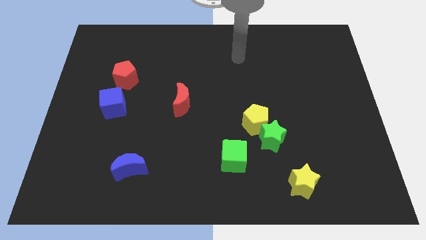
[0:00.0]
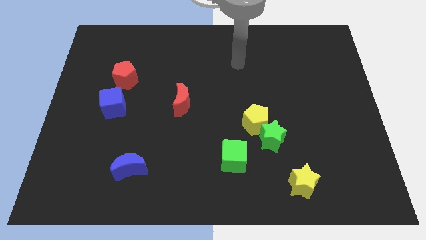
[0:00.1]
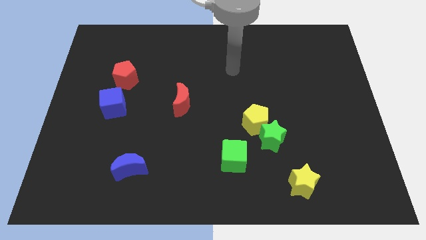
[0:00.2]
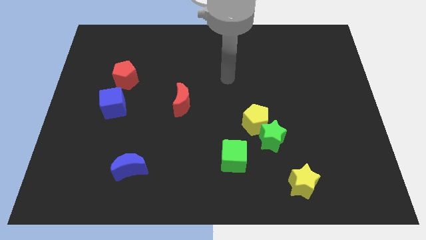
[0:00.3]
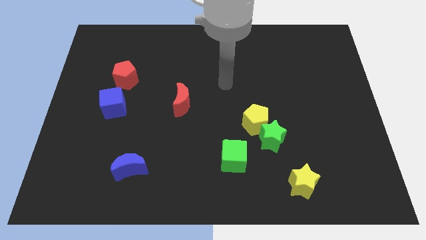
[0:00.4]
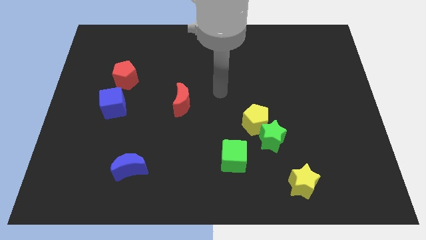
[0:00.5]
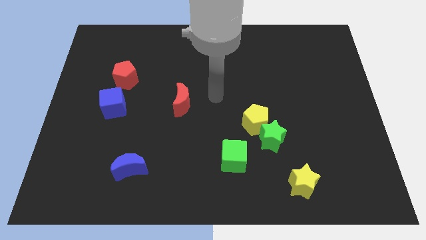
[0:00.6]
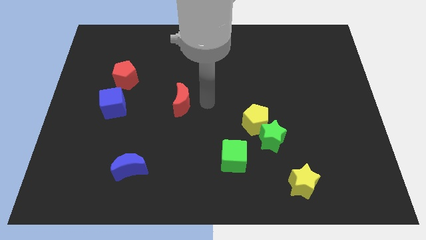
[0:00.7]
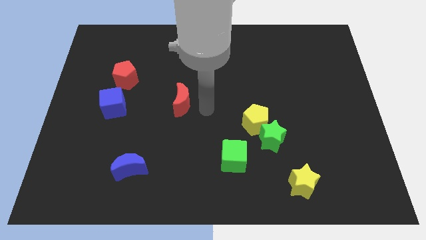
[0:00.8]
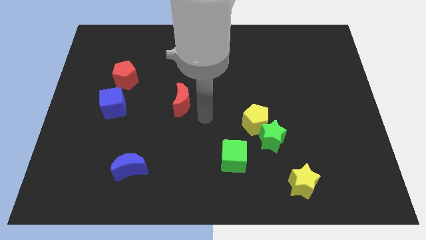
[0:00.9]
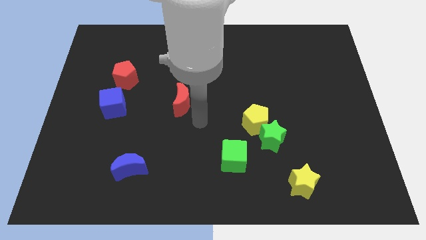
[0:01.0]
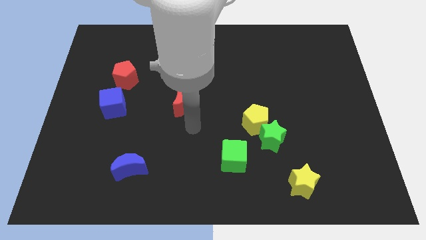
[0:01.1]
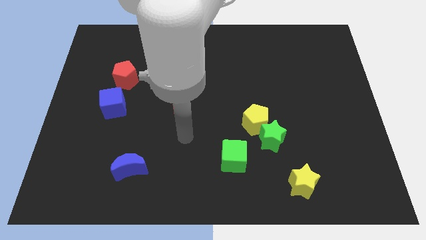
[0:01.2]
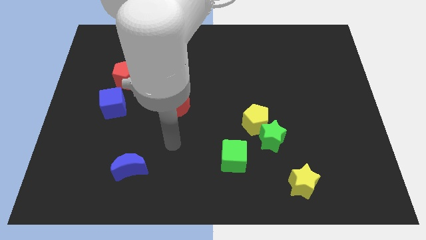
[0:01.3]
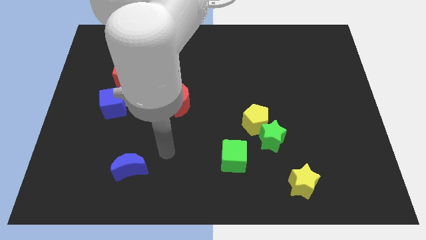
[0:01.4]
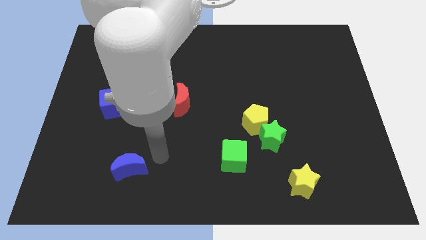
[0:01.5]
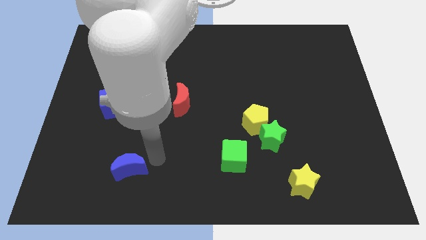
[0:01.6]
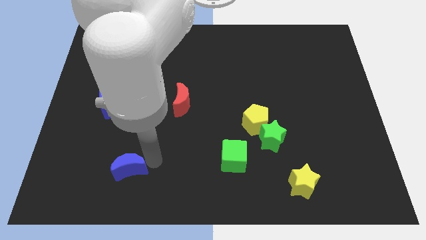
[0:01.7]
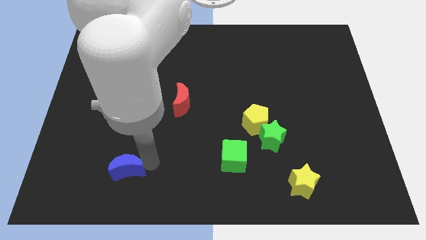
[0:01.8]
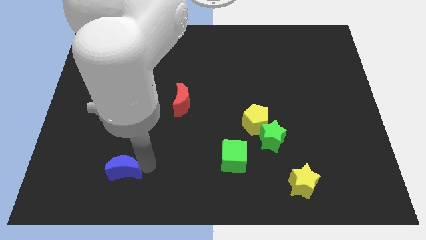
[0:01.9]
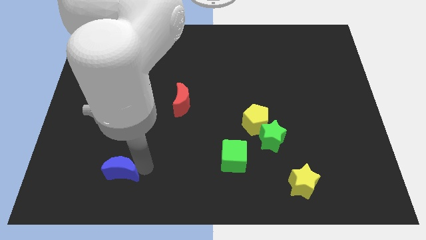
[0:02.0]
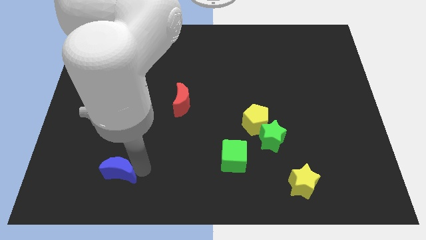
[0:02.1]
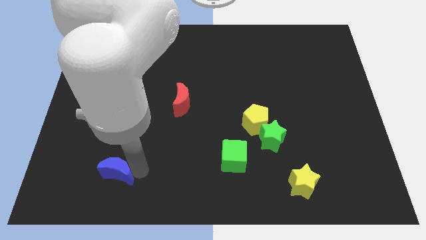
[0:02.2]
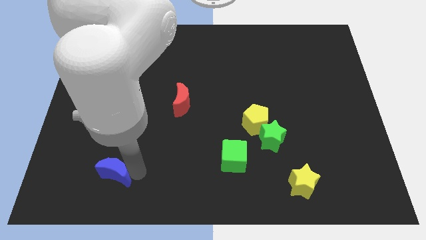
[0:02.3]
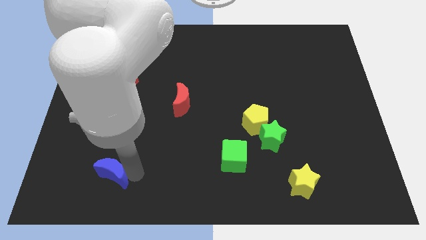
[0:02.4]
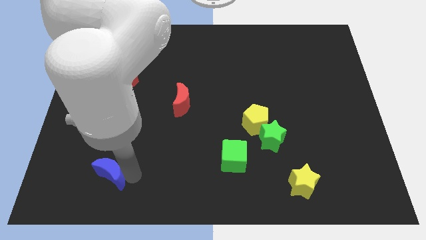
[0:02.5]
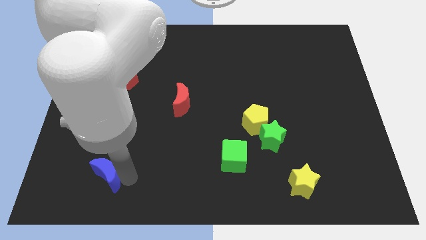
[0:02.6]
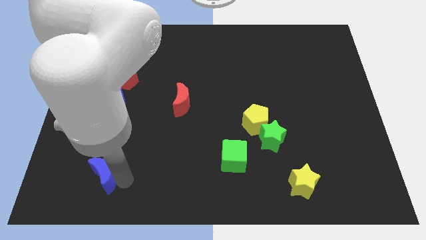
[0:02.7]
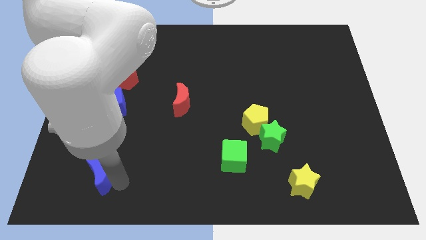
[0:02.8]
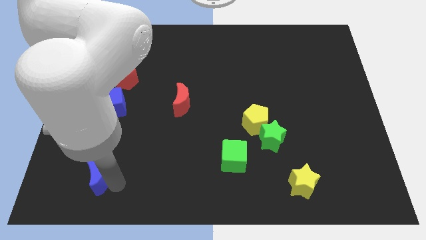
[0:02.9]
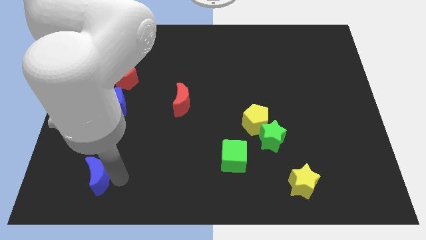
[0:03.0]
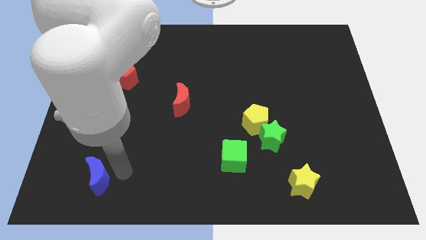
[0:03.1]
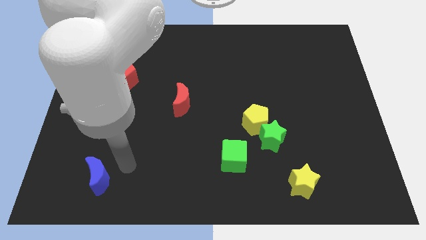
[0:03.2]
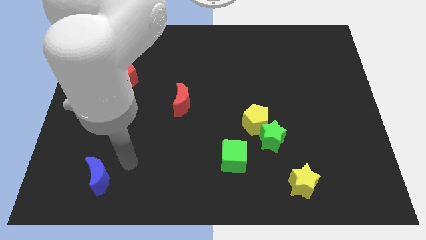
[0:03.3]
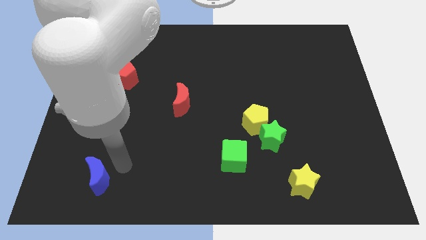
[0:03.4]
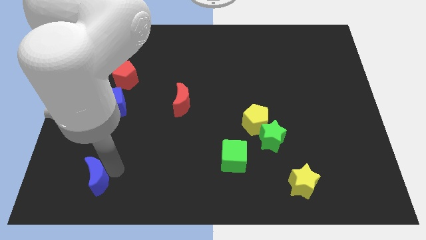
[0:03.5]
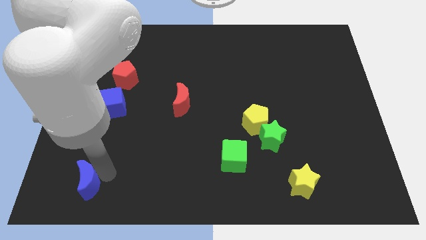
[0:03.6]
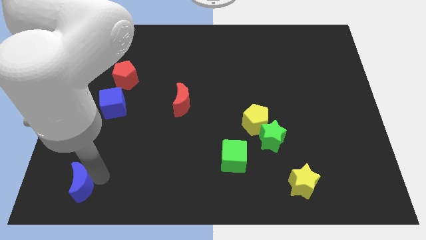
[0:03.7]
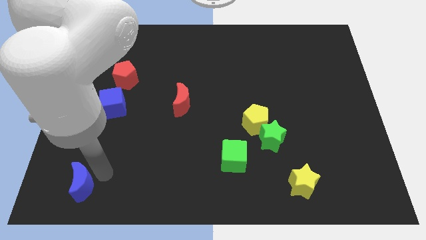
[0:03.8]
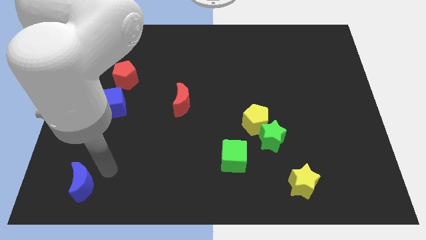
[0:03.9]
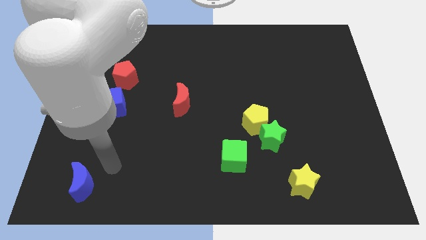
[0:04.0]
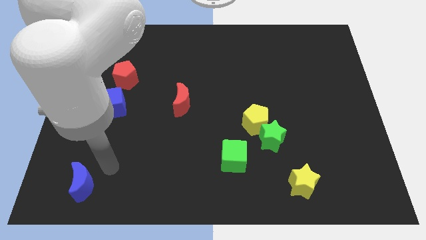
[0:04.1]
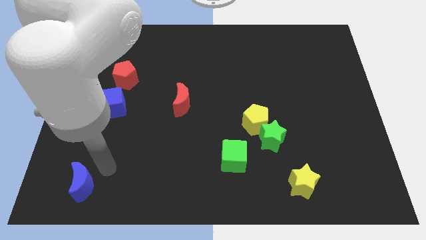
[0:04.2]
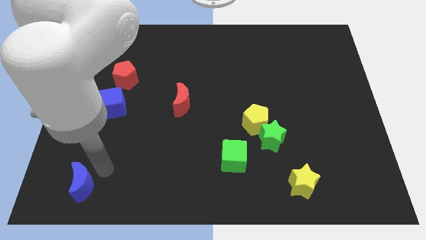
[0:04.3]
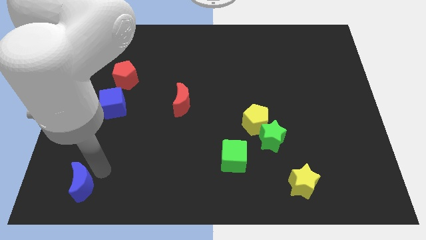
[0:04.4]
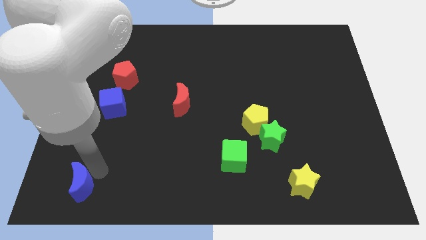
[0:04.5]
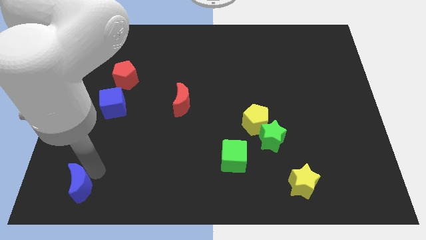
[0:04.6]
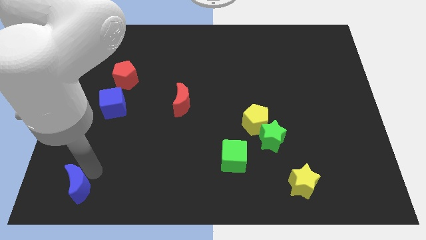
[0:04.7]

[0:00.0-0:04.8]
push the blue moon to the lower left corner

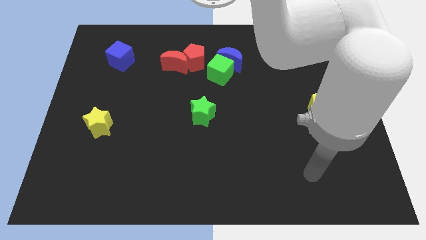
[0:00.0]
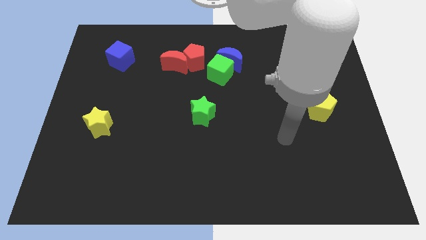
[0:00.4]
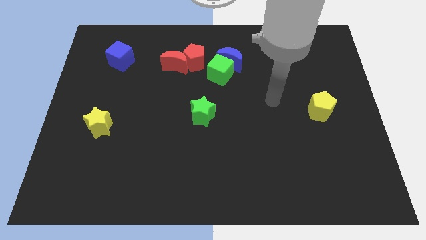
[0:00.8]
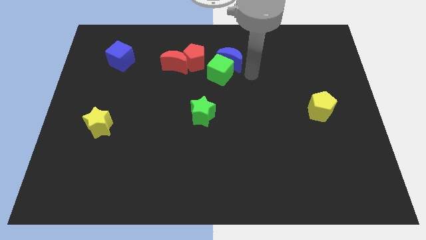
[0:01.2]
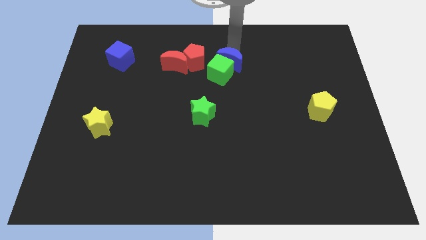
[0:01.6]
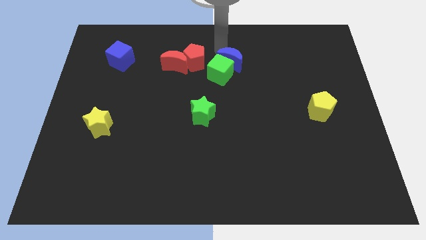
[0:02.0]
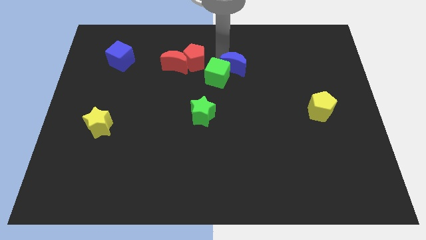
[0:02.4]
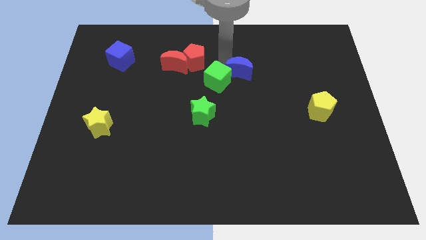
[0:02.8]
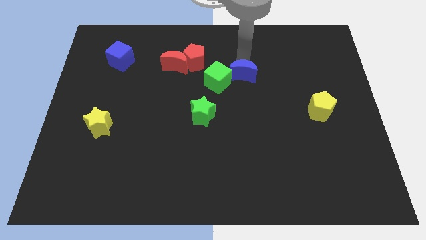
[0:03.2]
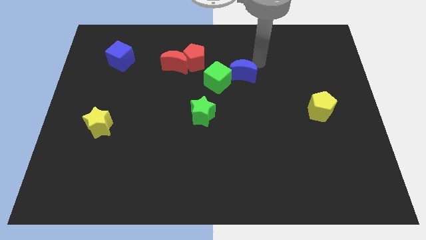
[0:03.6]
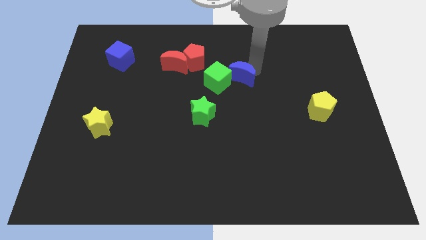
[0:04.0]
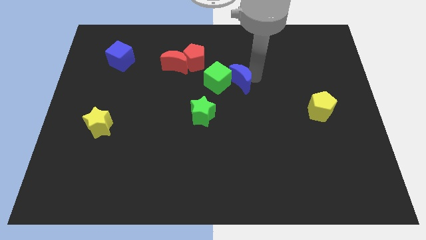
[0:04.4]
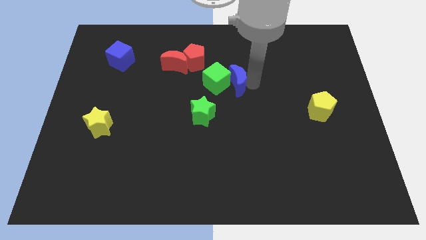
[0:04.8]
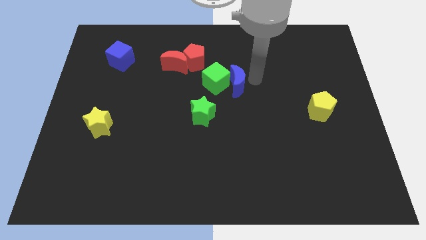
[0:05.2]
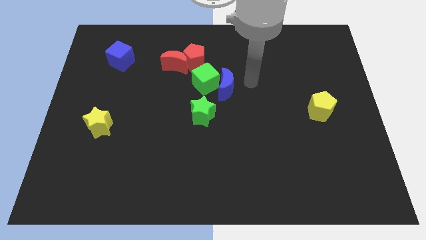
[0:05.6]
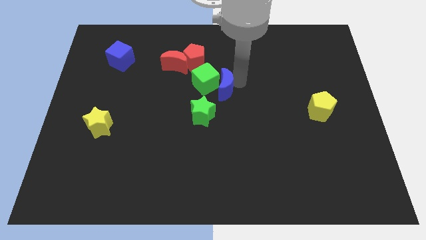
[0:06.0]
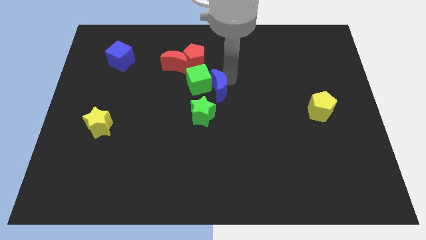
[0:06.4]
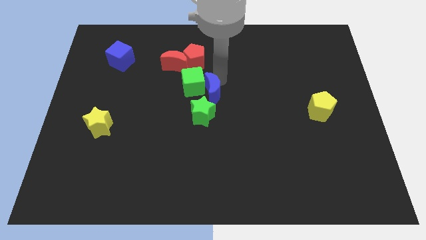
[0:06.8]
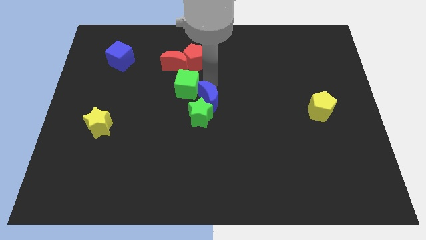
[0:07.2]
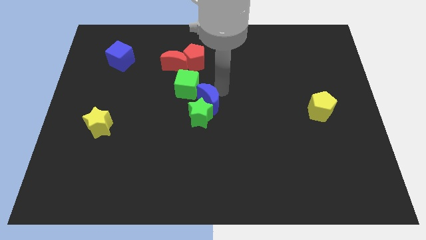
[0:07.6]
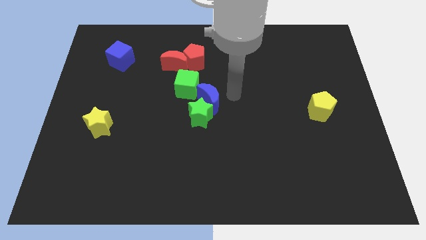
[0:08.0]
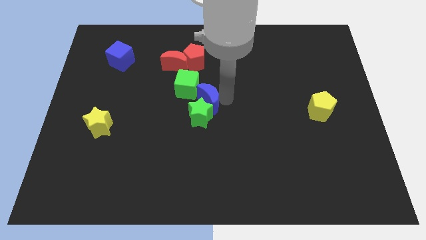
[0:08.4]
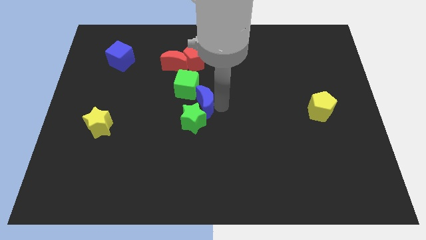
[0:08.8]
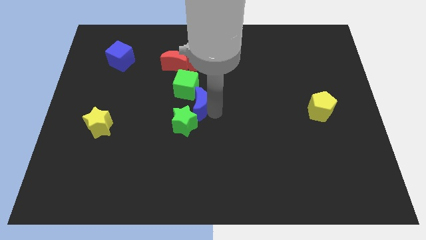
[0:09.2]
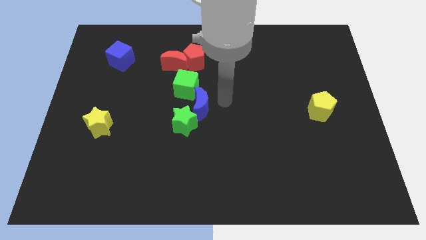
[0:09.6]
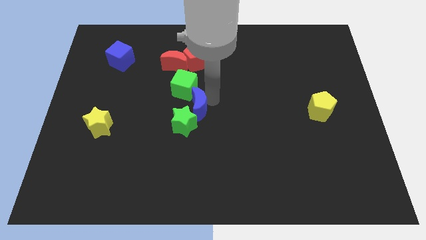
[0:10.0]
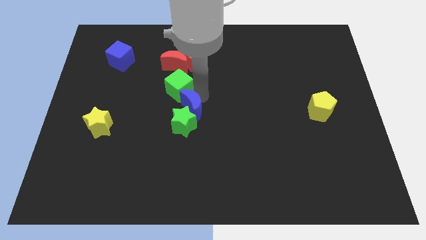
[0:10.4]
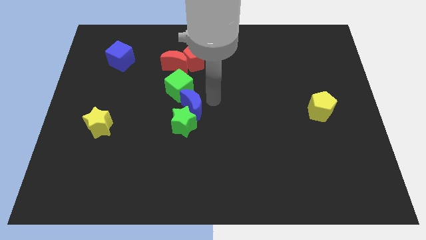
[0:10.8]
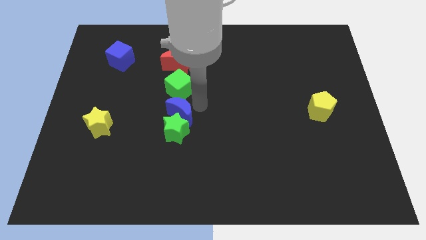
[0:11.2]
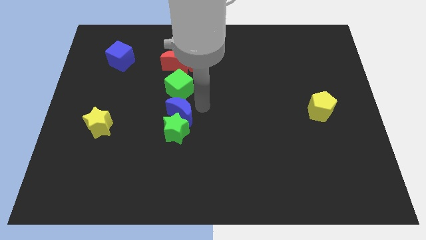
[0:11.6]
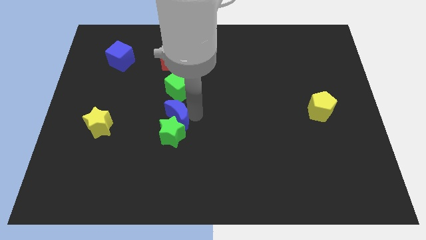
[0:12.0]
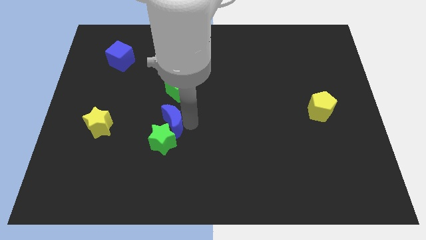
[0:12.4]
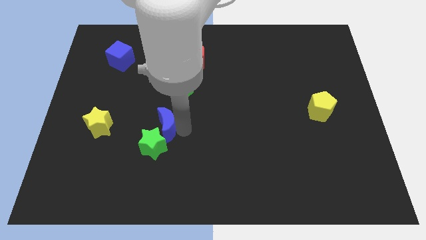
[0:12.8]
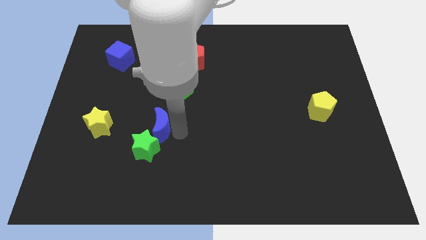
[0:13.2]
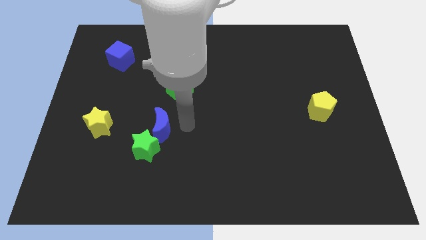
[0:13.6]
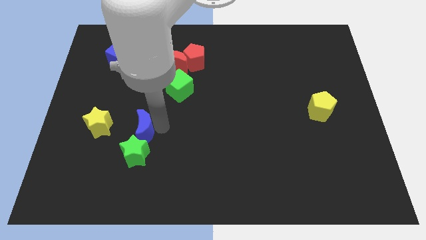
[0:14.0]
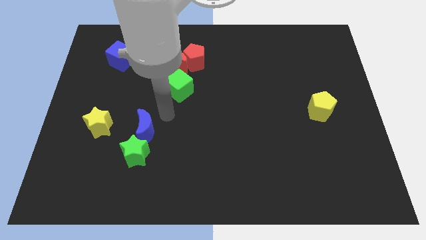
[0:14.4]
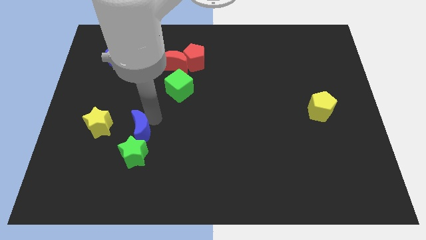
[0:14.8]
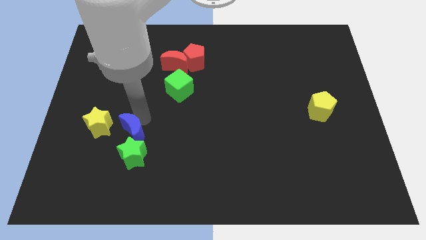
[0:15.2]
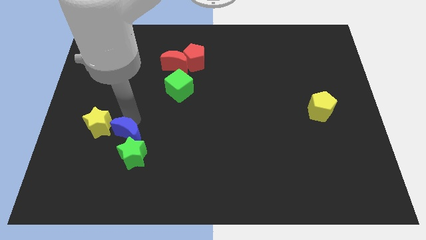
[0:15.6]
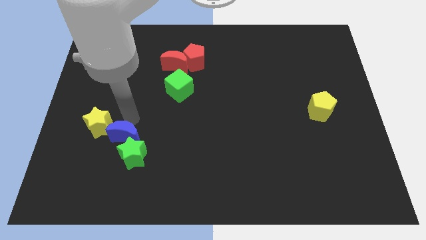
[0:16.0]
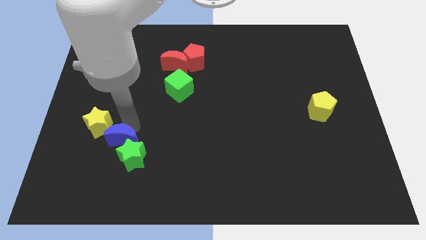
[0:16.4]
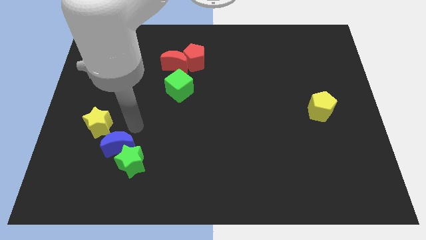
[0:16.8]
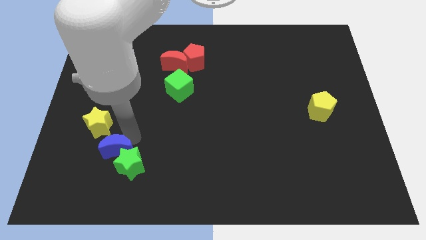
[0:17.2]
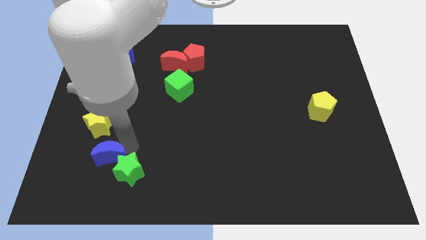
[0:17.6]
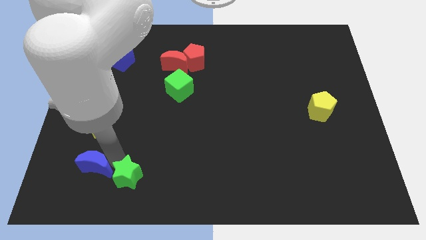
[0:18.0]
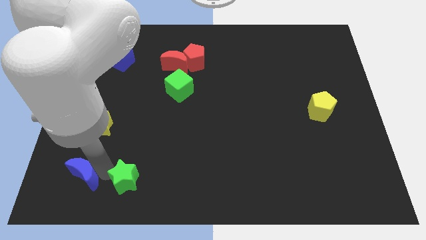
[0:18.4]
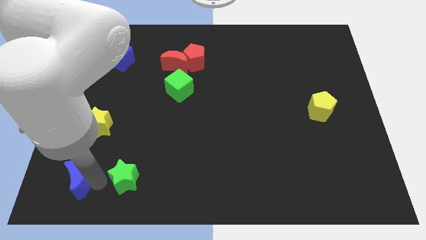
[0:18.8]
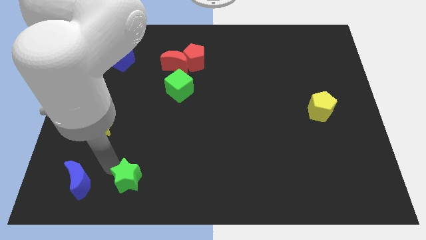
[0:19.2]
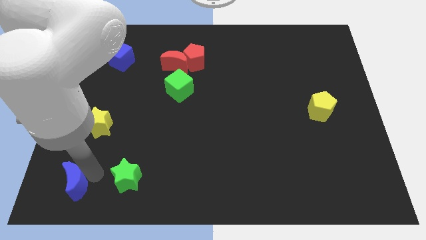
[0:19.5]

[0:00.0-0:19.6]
slide the blue moon to the bottom left
